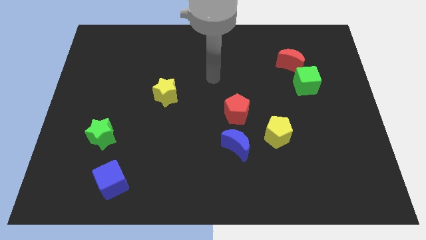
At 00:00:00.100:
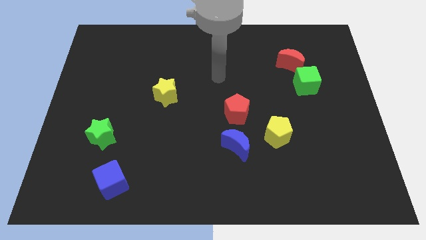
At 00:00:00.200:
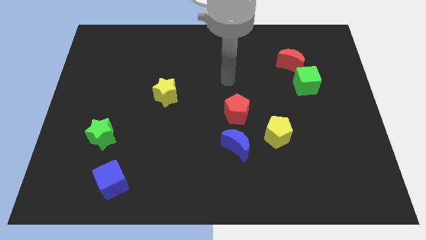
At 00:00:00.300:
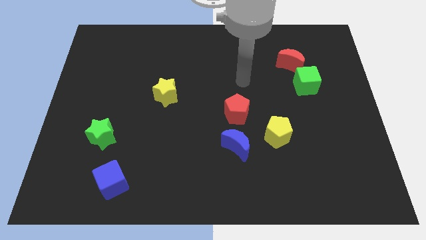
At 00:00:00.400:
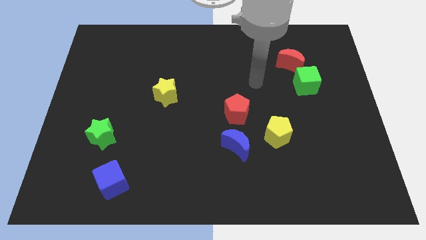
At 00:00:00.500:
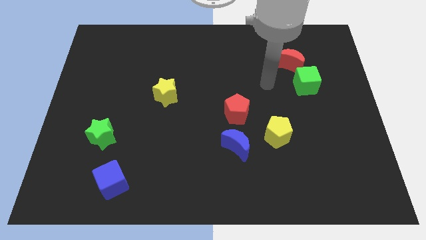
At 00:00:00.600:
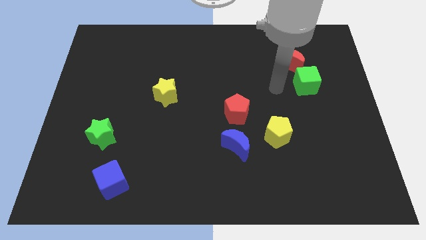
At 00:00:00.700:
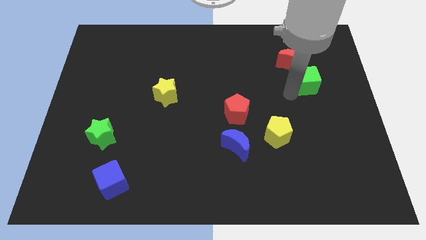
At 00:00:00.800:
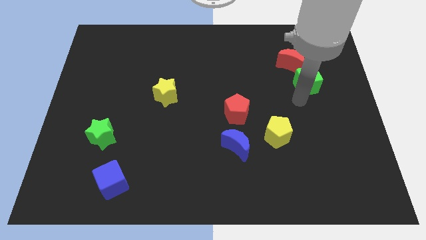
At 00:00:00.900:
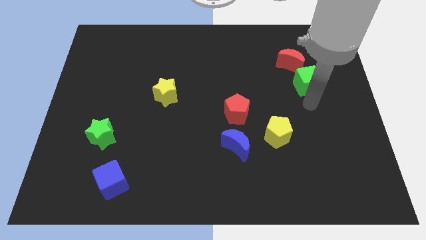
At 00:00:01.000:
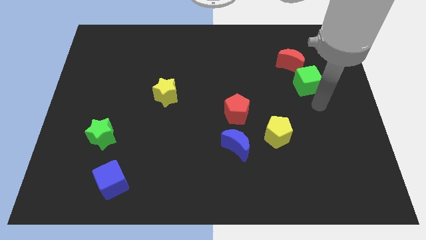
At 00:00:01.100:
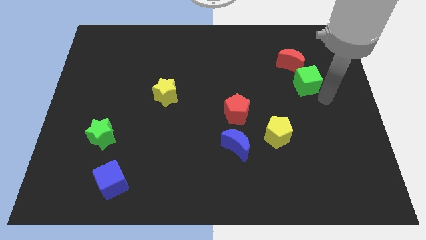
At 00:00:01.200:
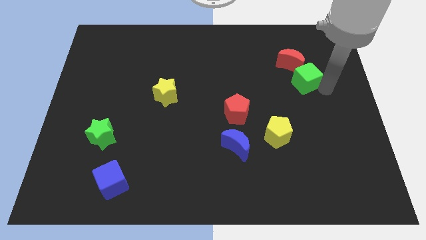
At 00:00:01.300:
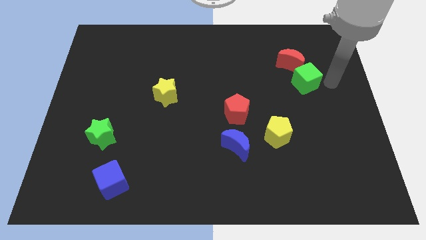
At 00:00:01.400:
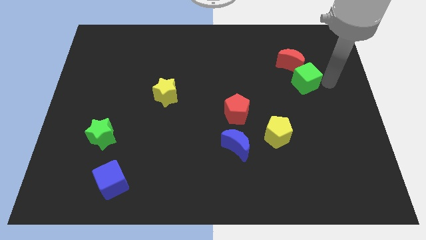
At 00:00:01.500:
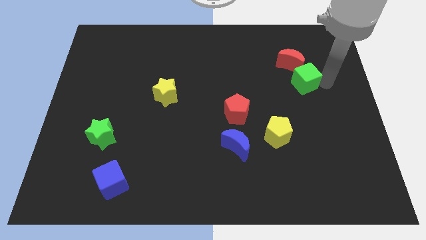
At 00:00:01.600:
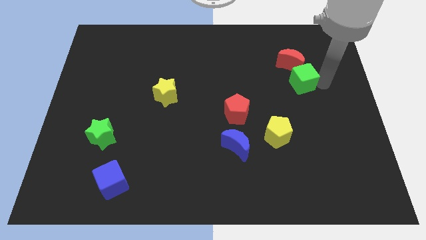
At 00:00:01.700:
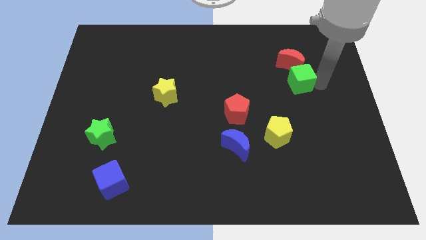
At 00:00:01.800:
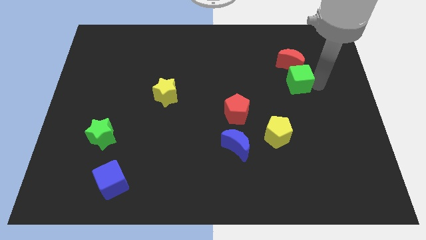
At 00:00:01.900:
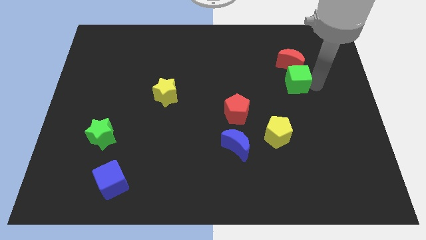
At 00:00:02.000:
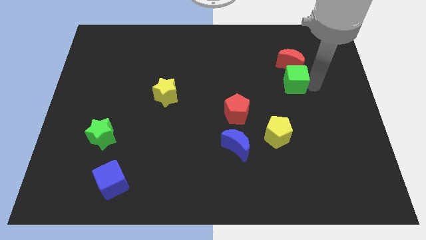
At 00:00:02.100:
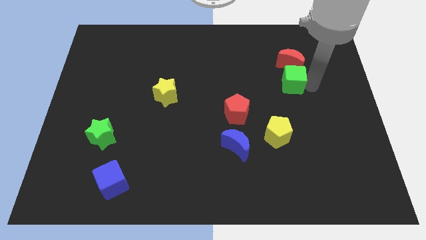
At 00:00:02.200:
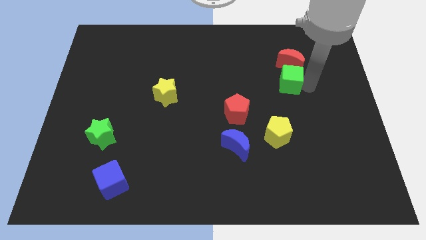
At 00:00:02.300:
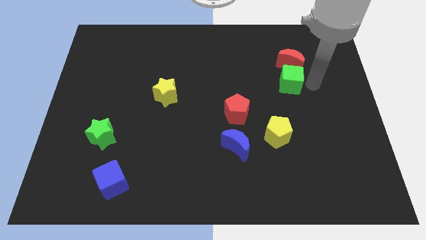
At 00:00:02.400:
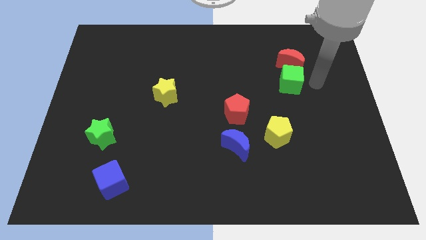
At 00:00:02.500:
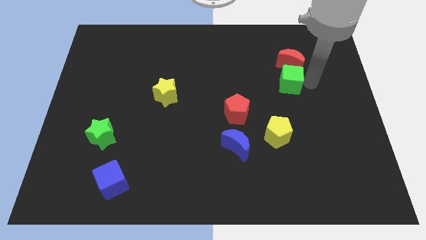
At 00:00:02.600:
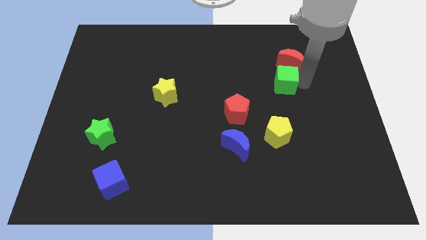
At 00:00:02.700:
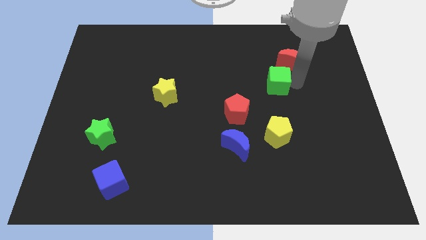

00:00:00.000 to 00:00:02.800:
push the green cube a bit left

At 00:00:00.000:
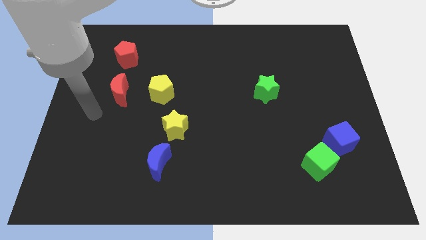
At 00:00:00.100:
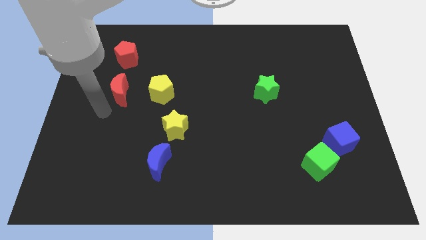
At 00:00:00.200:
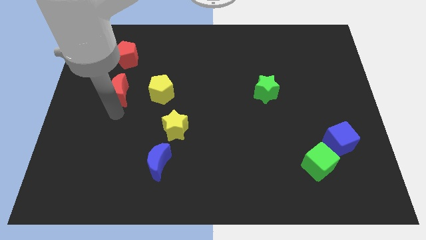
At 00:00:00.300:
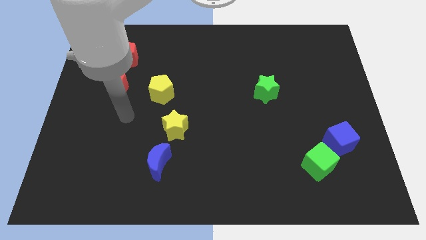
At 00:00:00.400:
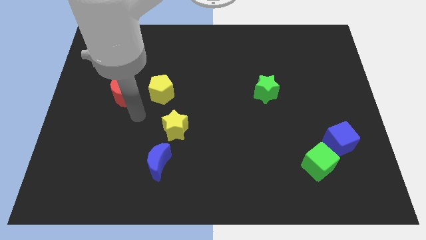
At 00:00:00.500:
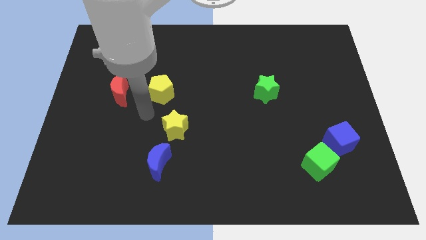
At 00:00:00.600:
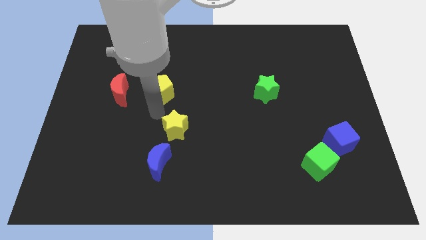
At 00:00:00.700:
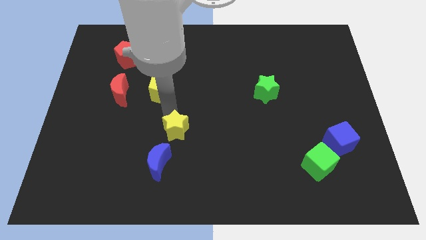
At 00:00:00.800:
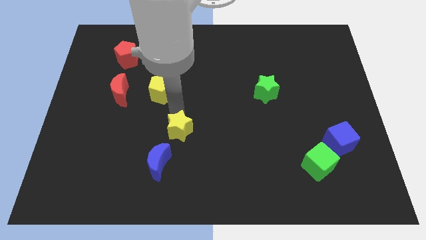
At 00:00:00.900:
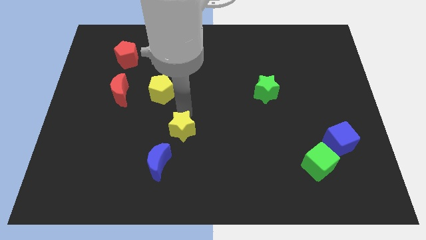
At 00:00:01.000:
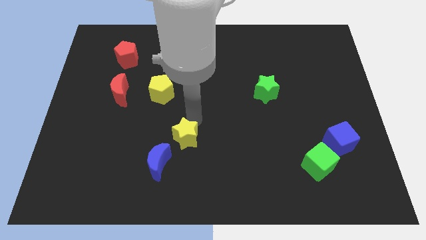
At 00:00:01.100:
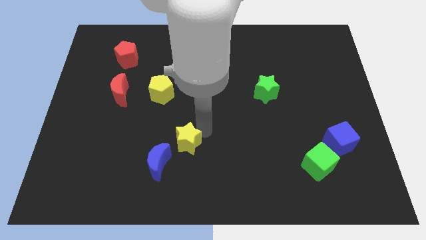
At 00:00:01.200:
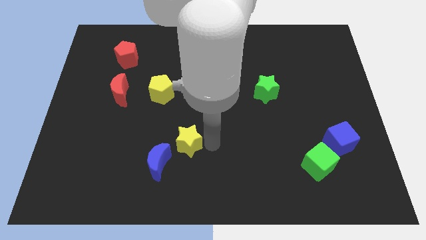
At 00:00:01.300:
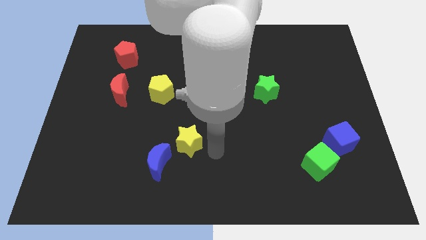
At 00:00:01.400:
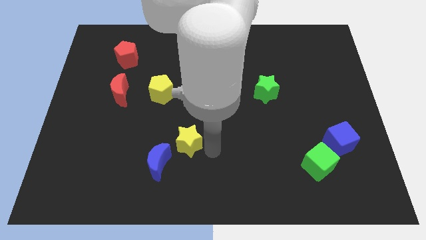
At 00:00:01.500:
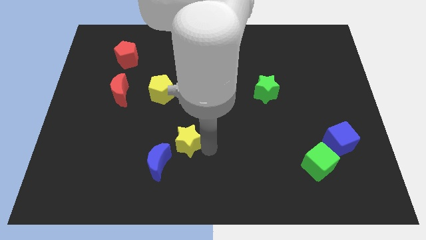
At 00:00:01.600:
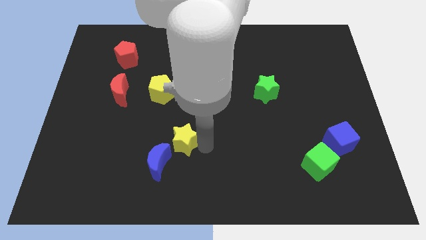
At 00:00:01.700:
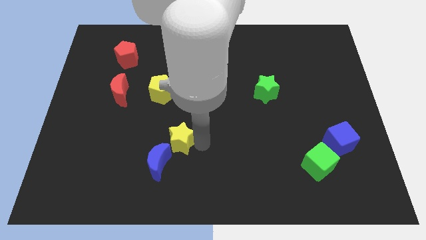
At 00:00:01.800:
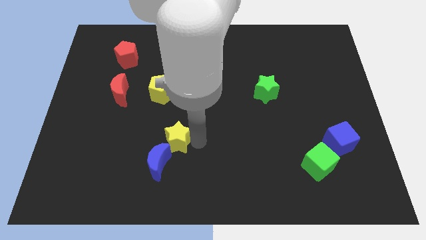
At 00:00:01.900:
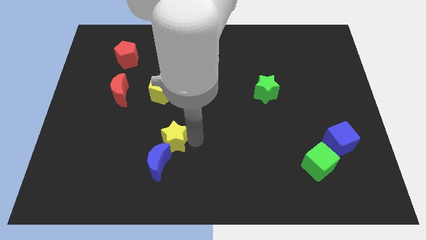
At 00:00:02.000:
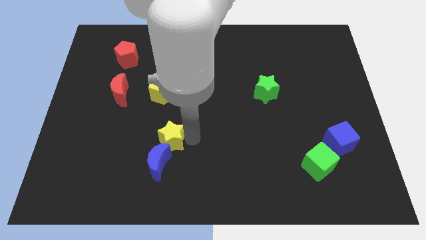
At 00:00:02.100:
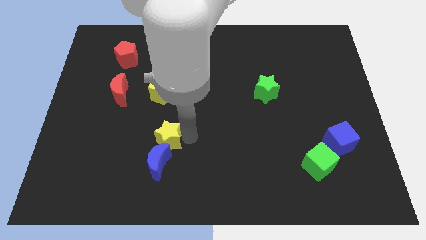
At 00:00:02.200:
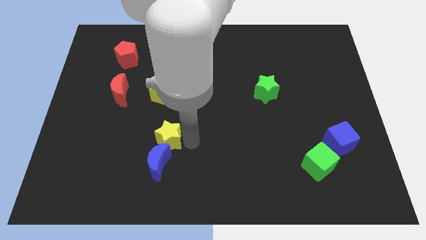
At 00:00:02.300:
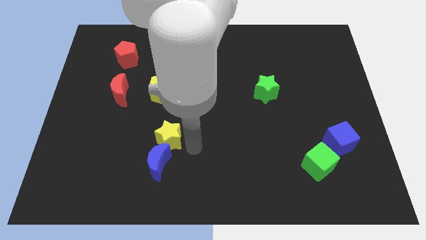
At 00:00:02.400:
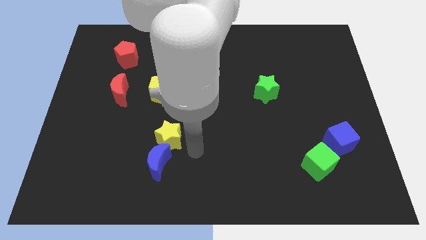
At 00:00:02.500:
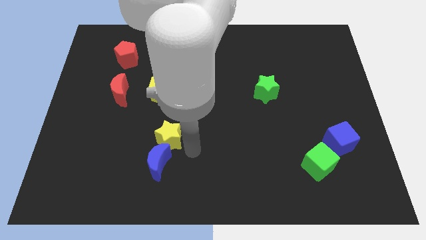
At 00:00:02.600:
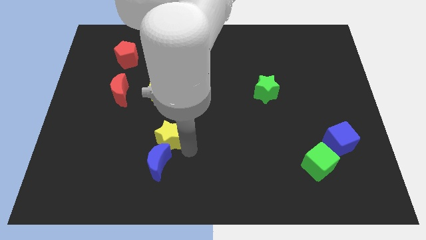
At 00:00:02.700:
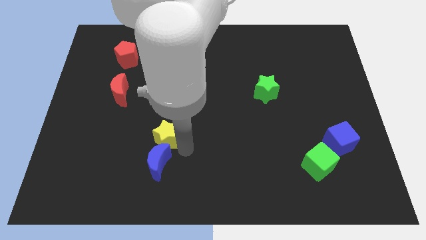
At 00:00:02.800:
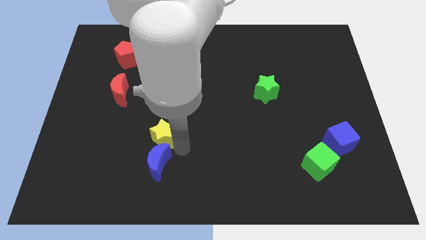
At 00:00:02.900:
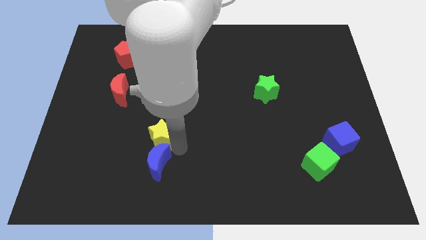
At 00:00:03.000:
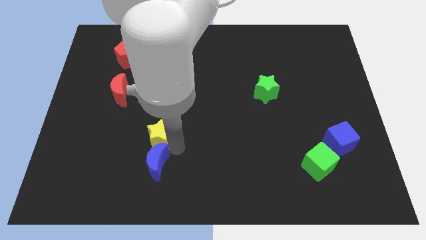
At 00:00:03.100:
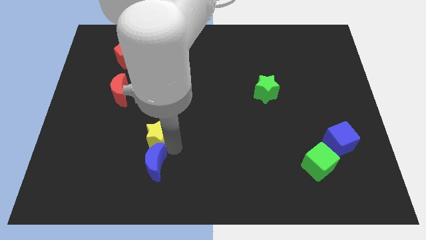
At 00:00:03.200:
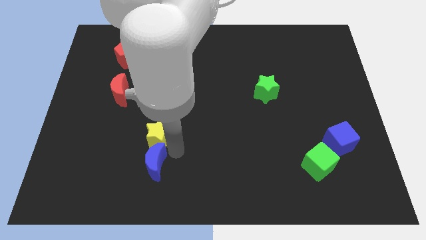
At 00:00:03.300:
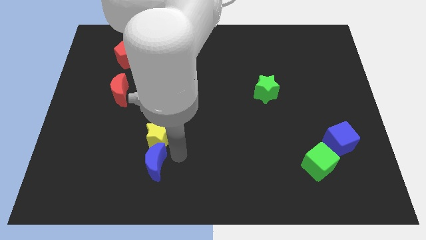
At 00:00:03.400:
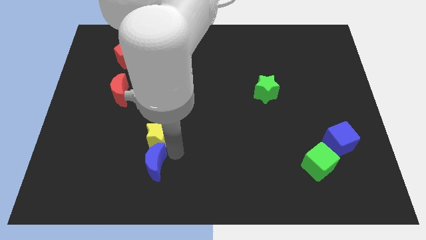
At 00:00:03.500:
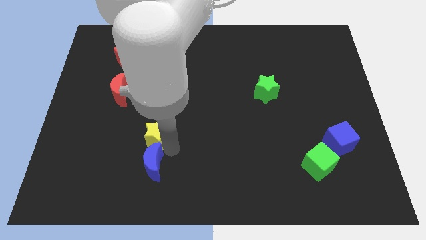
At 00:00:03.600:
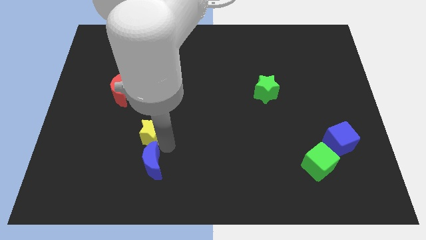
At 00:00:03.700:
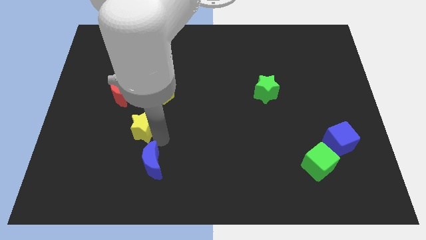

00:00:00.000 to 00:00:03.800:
push the yellow star a little bit left

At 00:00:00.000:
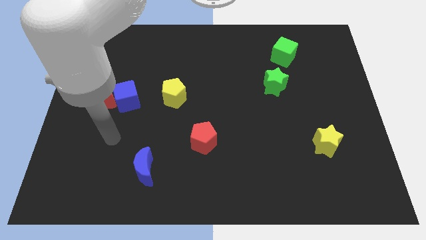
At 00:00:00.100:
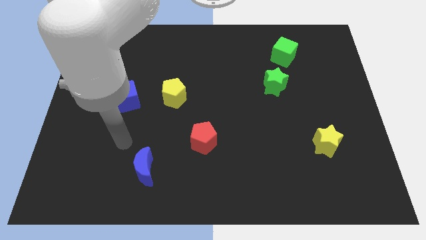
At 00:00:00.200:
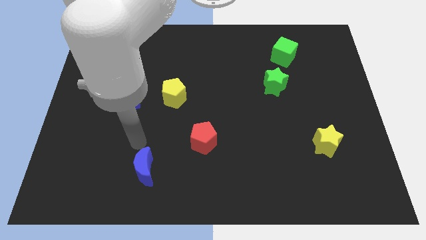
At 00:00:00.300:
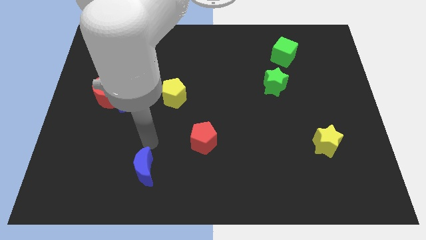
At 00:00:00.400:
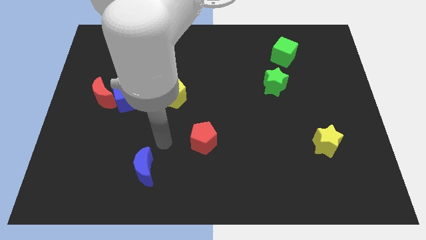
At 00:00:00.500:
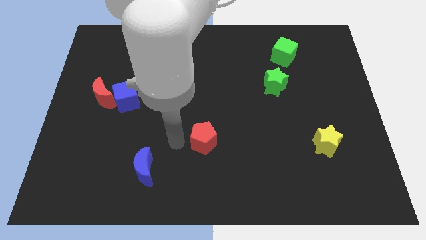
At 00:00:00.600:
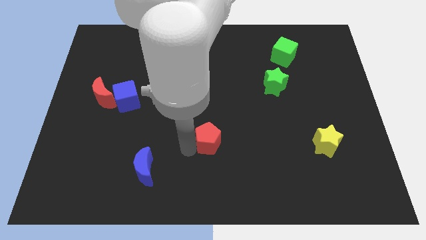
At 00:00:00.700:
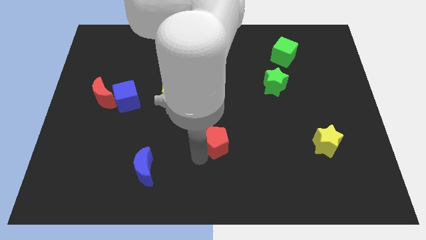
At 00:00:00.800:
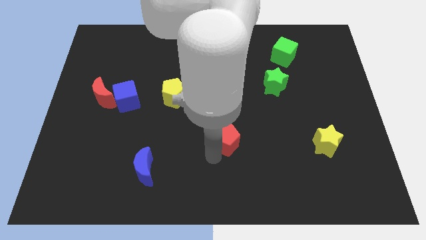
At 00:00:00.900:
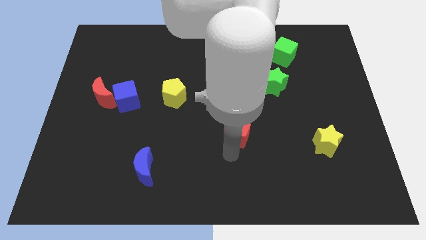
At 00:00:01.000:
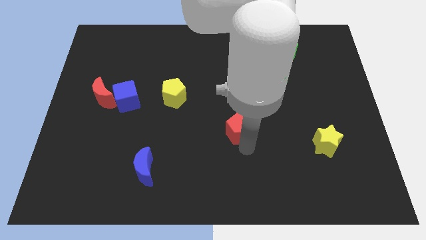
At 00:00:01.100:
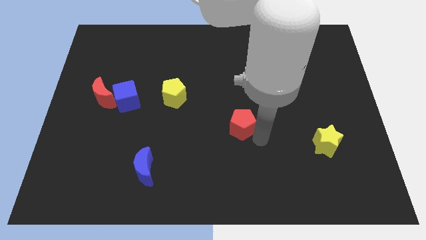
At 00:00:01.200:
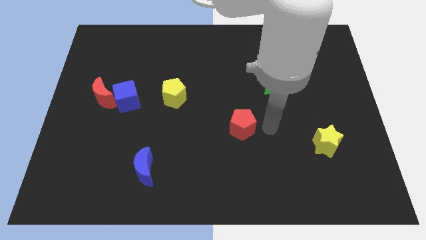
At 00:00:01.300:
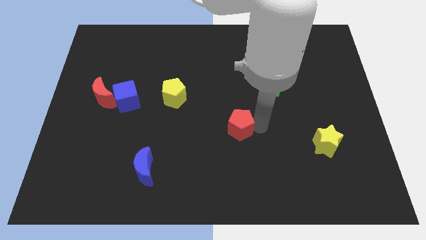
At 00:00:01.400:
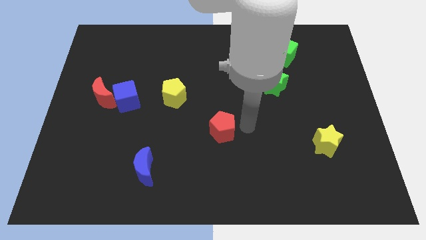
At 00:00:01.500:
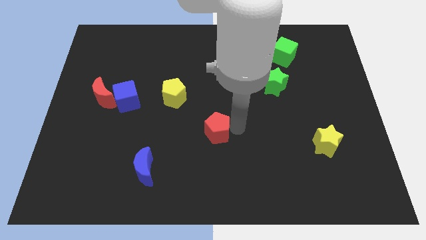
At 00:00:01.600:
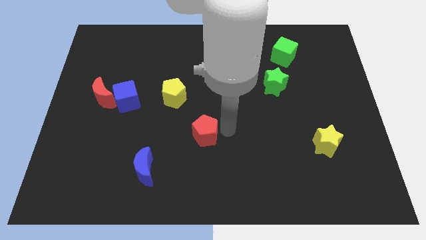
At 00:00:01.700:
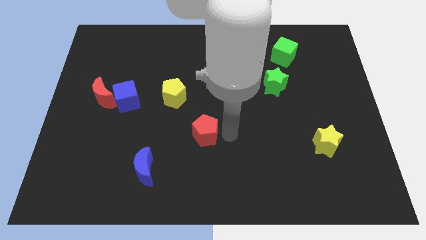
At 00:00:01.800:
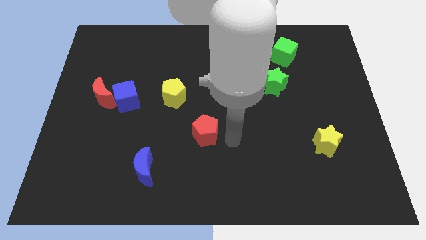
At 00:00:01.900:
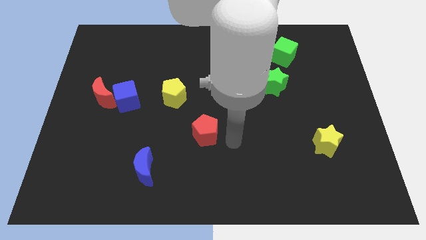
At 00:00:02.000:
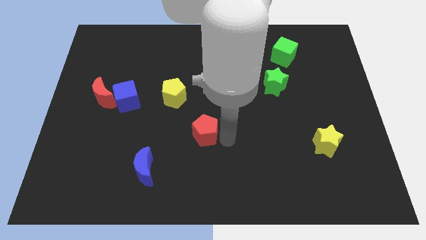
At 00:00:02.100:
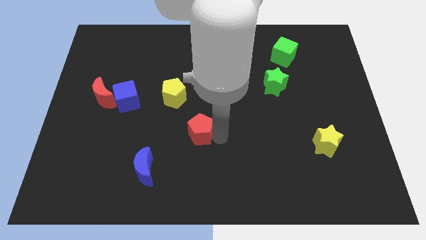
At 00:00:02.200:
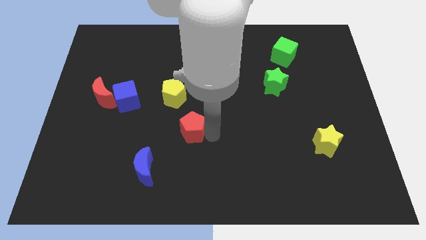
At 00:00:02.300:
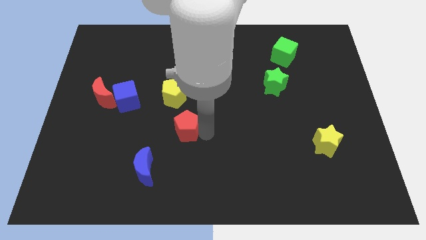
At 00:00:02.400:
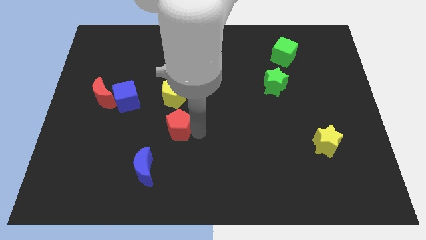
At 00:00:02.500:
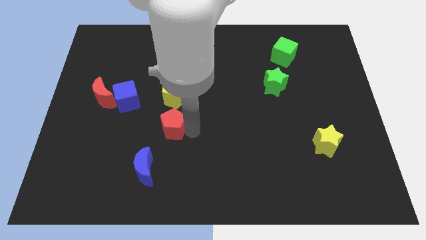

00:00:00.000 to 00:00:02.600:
slide the red pentagon slightly upwards and to the left diagonally
